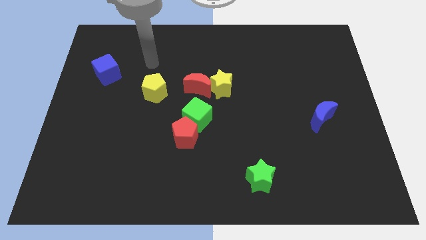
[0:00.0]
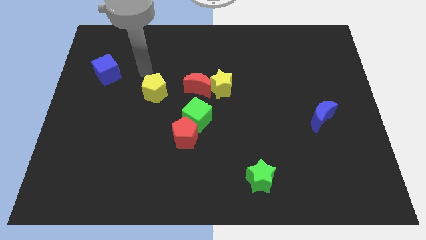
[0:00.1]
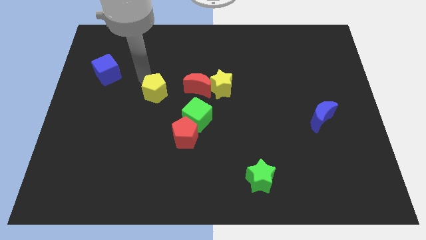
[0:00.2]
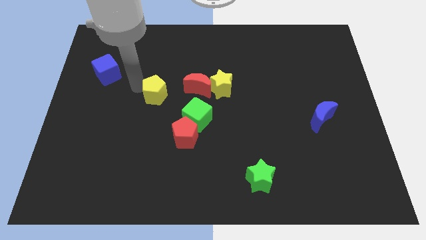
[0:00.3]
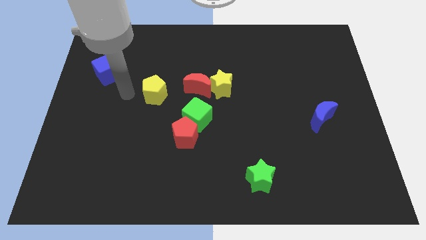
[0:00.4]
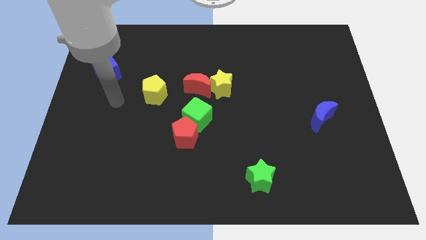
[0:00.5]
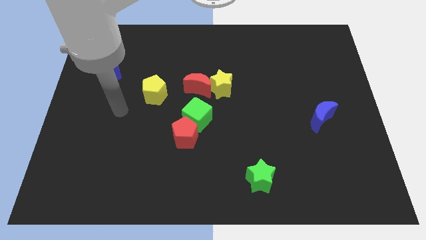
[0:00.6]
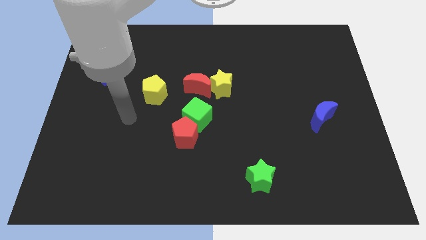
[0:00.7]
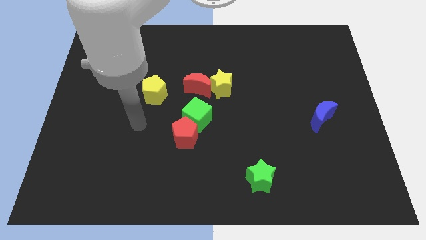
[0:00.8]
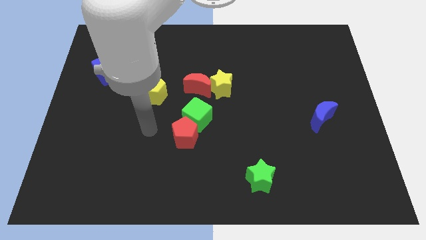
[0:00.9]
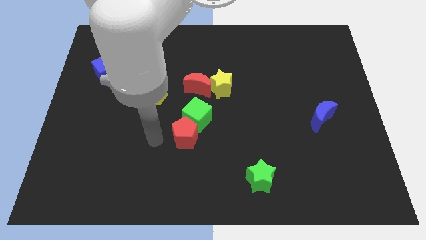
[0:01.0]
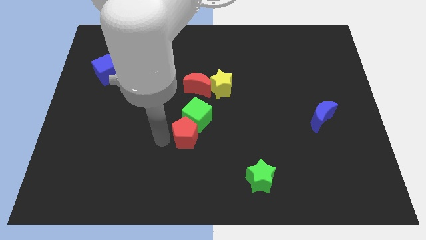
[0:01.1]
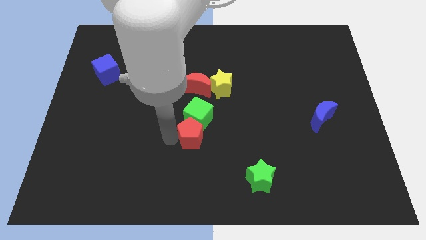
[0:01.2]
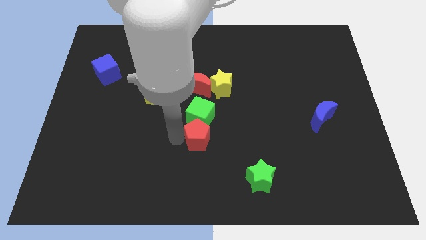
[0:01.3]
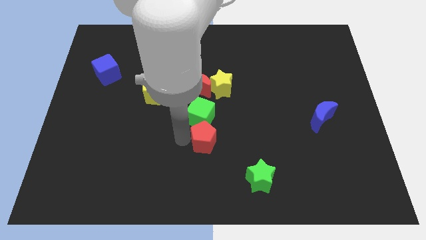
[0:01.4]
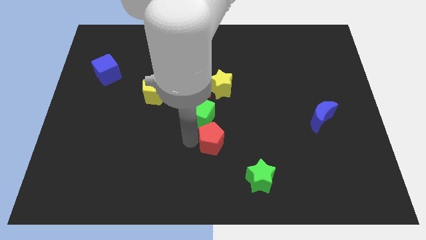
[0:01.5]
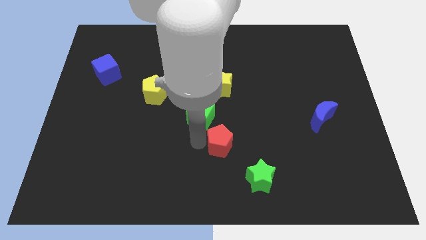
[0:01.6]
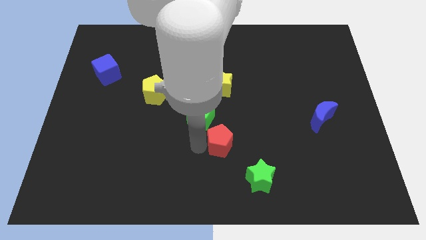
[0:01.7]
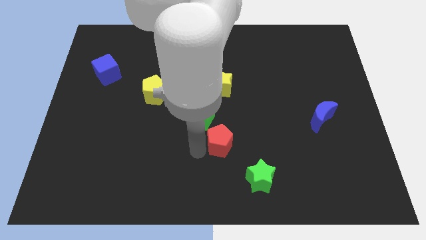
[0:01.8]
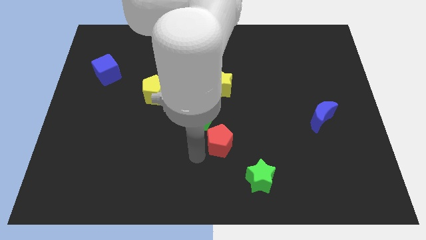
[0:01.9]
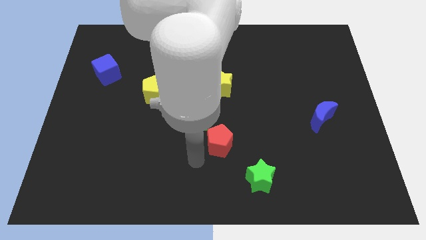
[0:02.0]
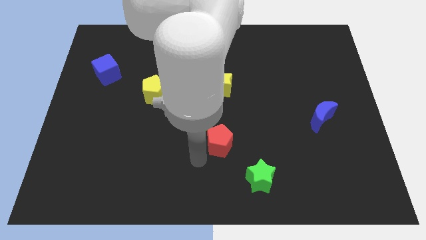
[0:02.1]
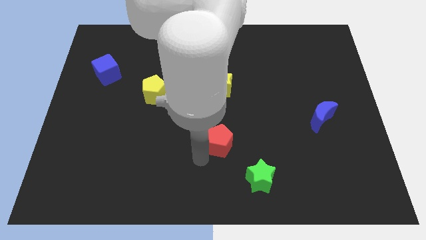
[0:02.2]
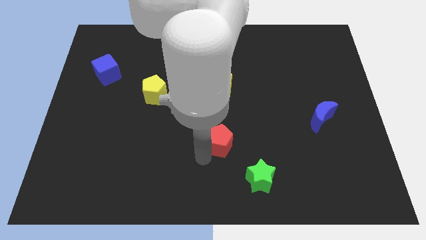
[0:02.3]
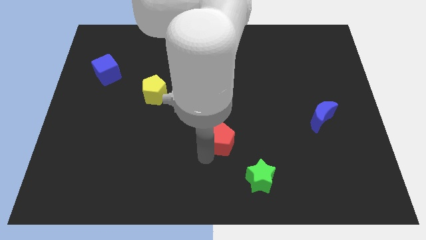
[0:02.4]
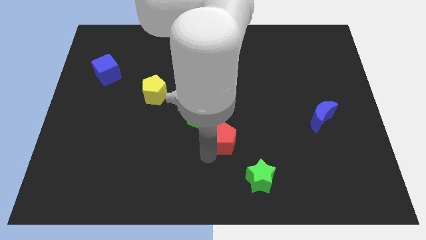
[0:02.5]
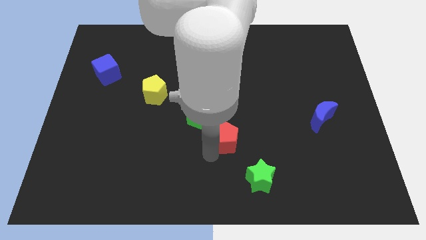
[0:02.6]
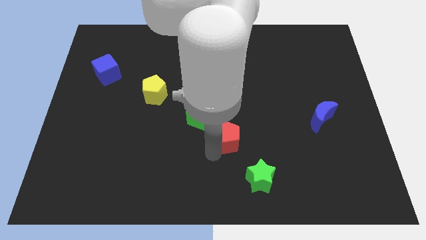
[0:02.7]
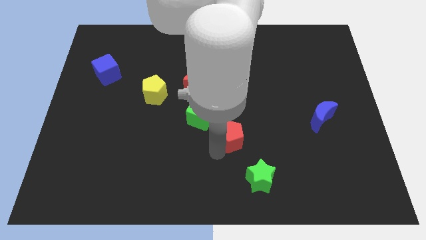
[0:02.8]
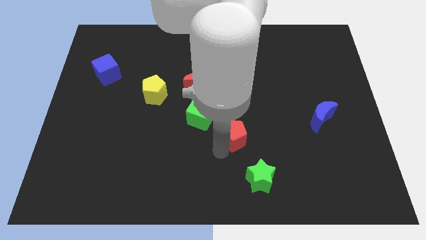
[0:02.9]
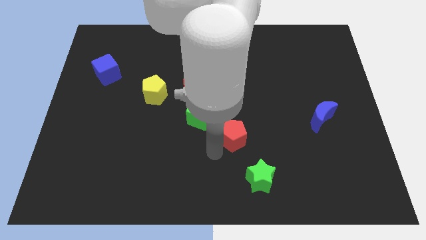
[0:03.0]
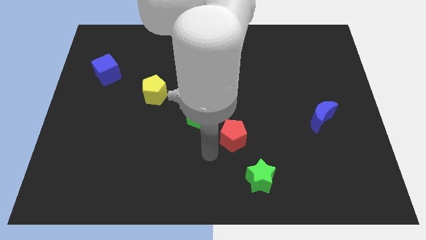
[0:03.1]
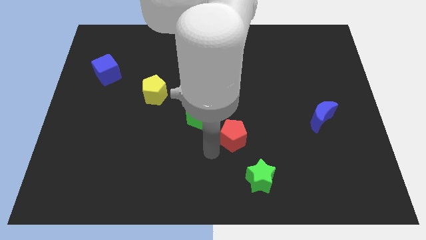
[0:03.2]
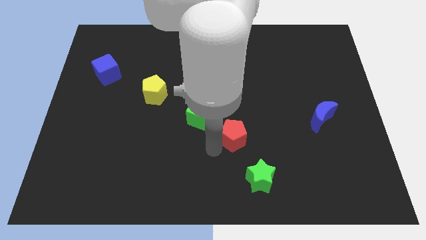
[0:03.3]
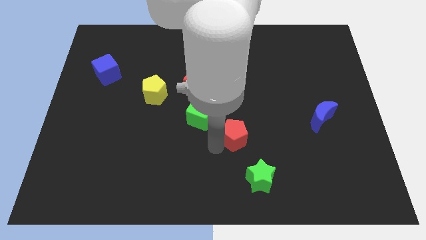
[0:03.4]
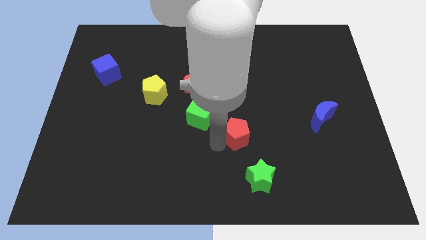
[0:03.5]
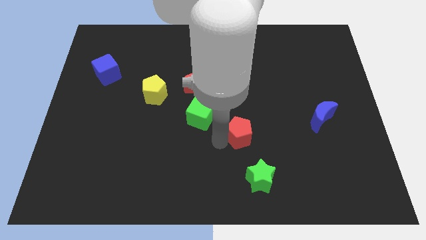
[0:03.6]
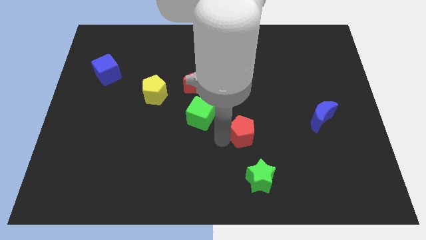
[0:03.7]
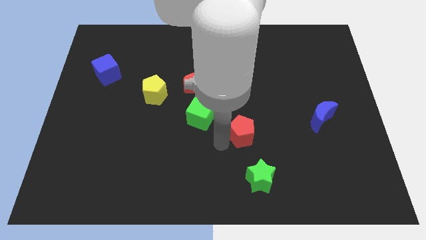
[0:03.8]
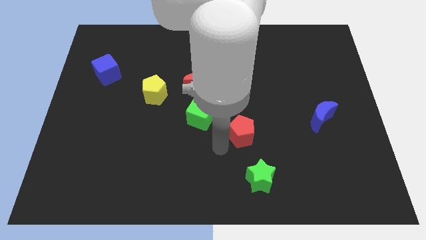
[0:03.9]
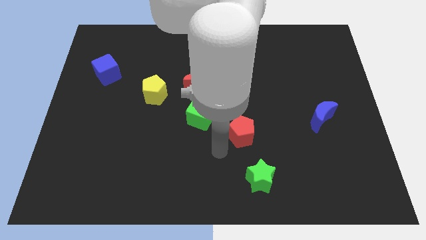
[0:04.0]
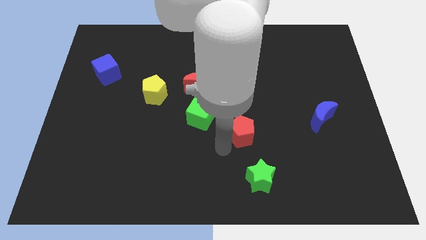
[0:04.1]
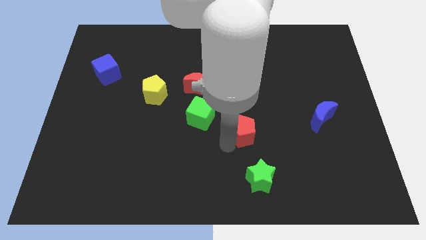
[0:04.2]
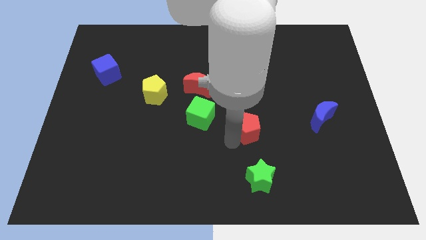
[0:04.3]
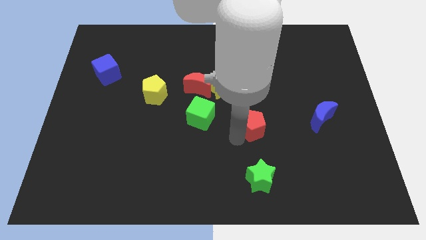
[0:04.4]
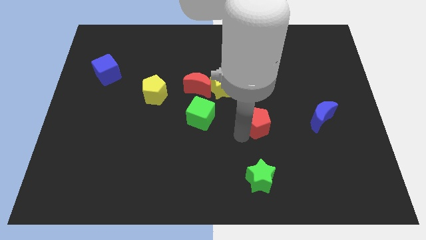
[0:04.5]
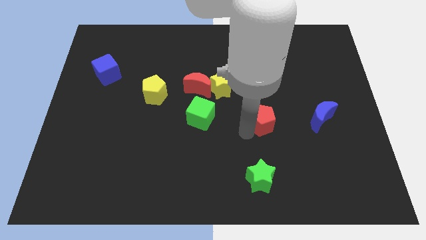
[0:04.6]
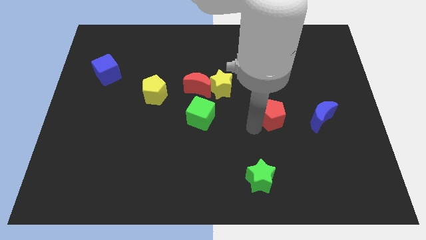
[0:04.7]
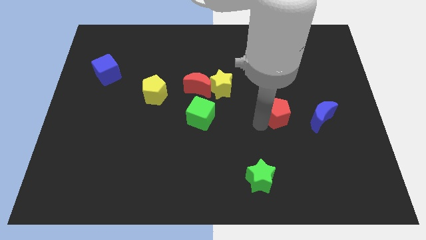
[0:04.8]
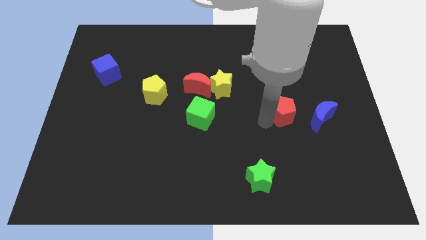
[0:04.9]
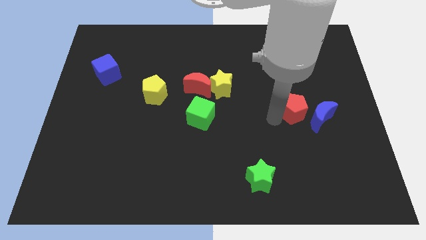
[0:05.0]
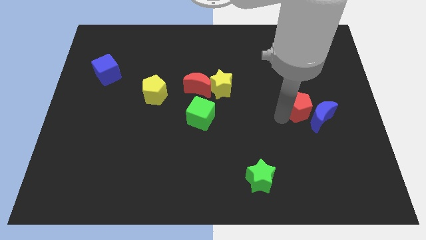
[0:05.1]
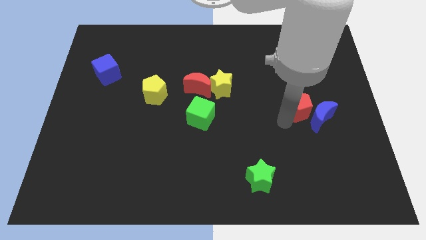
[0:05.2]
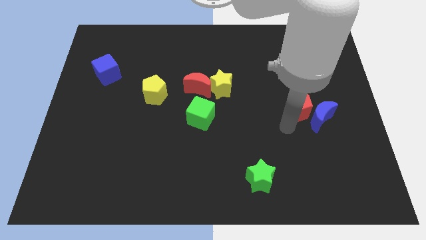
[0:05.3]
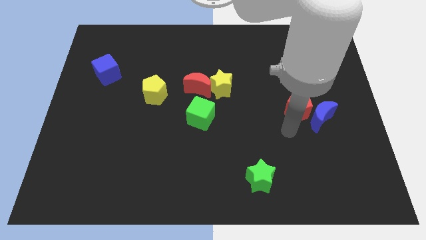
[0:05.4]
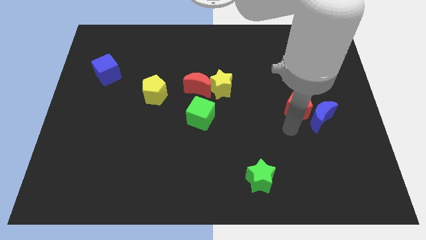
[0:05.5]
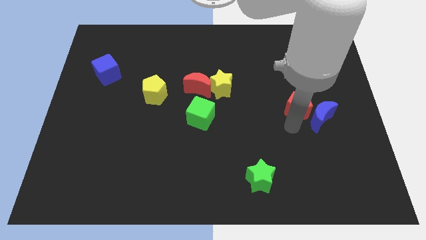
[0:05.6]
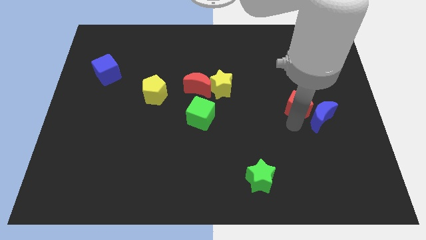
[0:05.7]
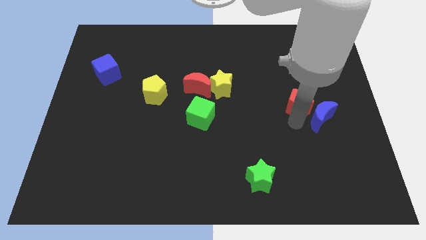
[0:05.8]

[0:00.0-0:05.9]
slide the red pentagon above the blue moon

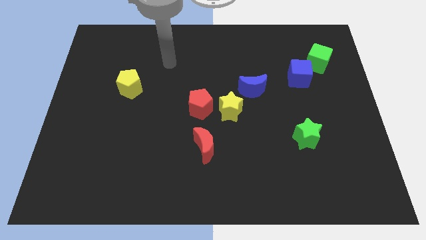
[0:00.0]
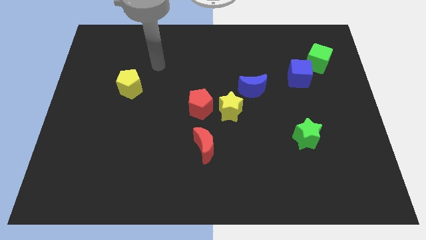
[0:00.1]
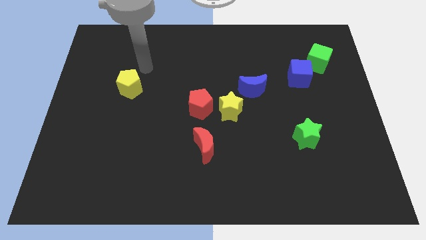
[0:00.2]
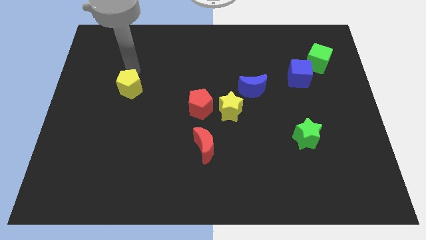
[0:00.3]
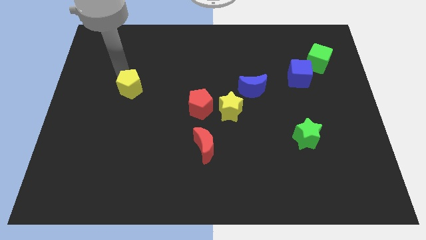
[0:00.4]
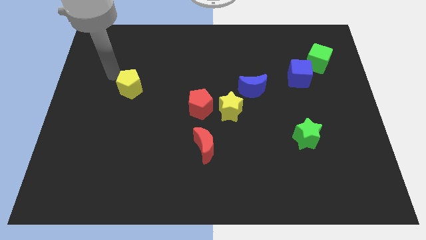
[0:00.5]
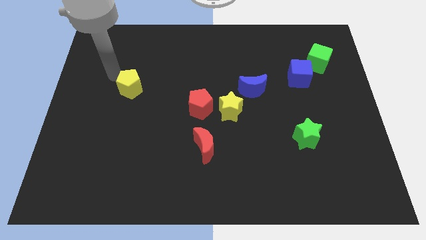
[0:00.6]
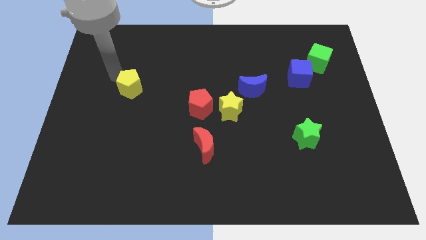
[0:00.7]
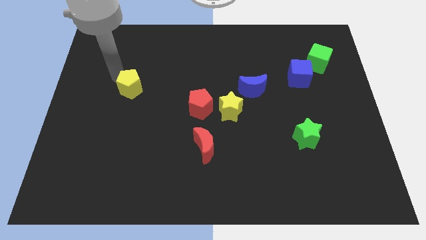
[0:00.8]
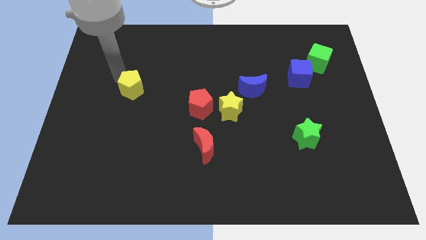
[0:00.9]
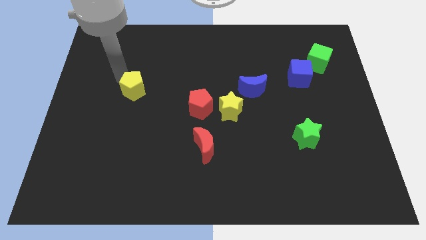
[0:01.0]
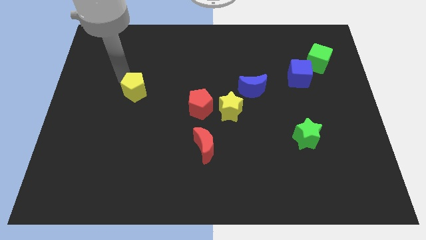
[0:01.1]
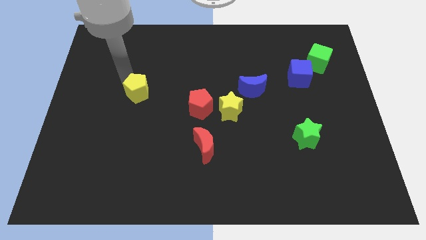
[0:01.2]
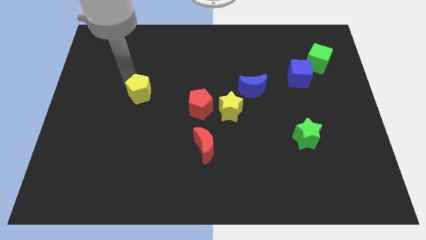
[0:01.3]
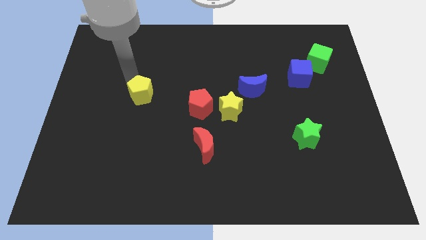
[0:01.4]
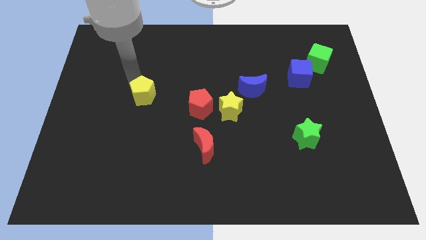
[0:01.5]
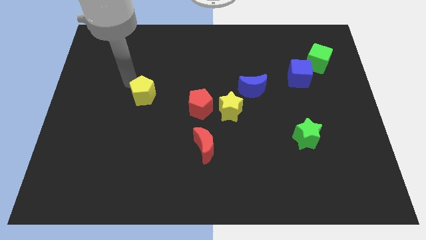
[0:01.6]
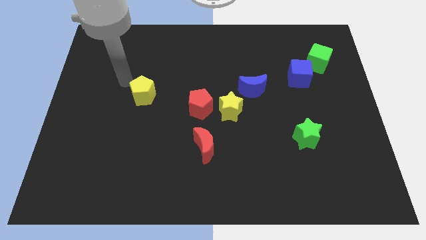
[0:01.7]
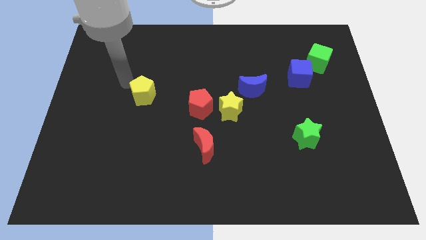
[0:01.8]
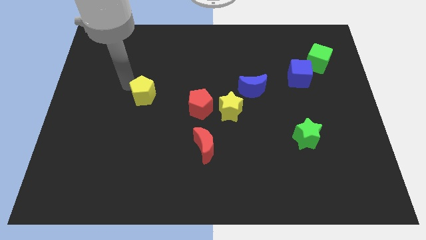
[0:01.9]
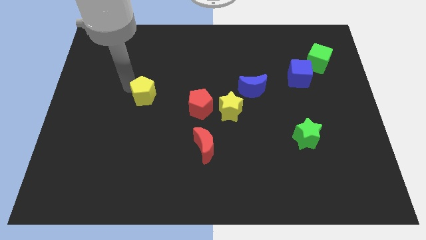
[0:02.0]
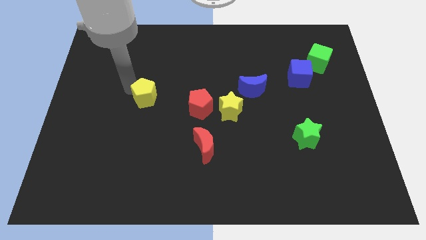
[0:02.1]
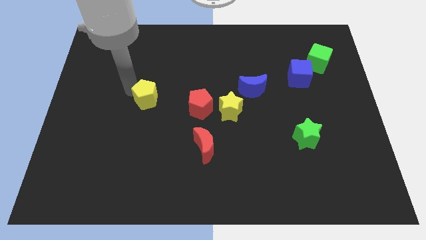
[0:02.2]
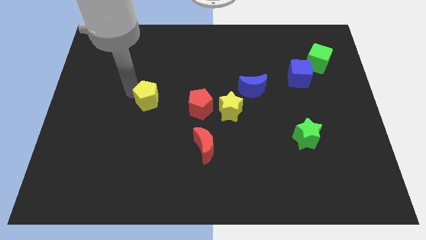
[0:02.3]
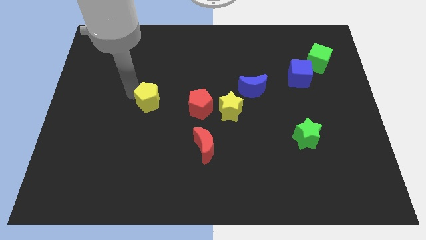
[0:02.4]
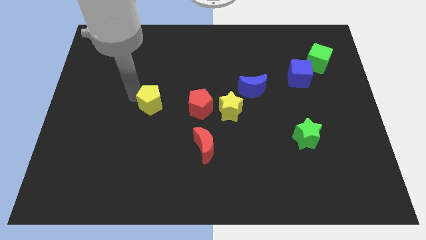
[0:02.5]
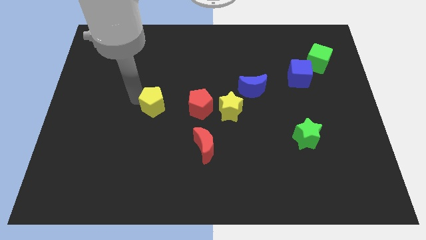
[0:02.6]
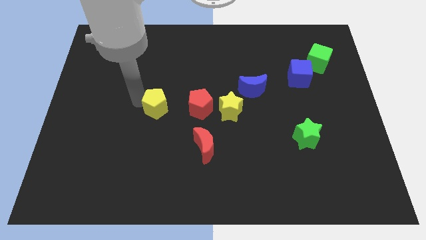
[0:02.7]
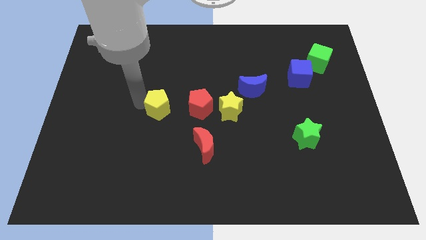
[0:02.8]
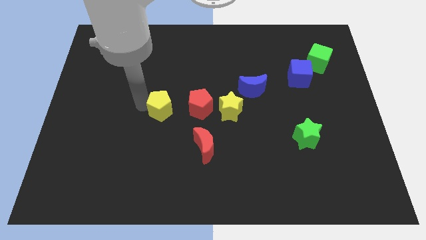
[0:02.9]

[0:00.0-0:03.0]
push the yellow pentagon left of the yellow star
